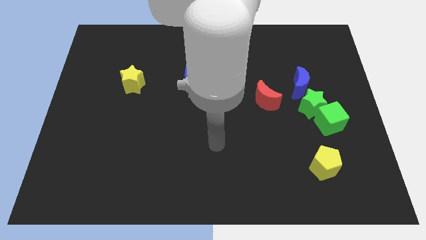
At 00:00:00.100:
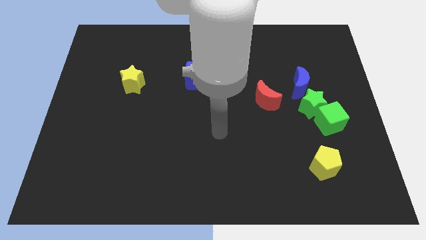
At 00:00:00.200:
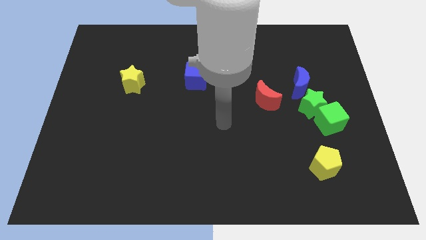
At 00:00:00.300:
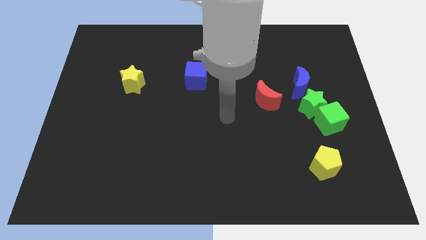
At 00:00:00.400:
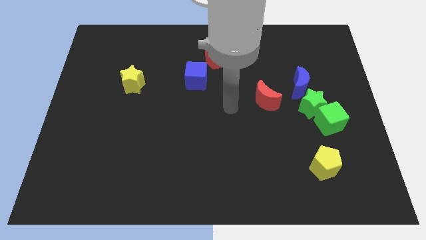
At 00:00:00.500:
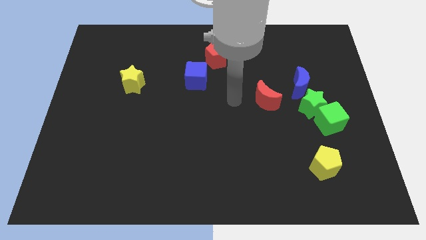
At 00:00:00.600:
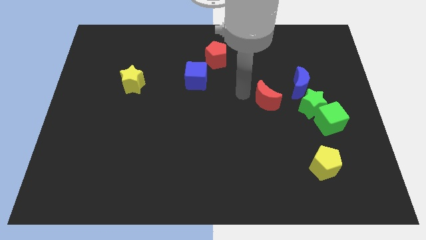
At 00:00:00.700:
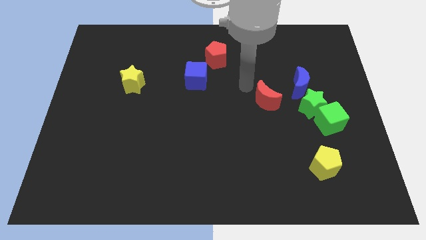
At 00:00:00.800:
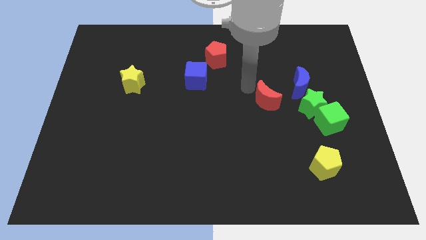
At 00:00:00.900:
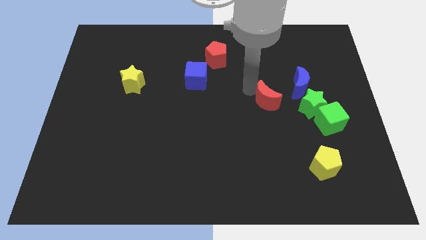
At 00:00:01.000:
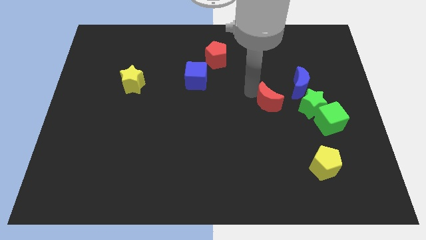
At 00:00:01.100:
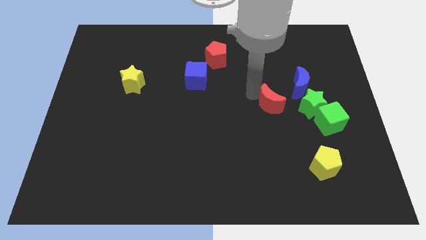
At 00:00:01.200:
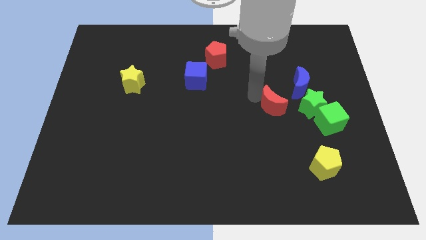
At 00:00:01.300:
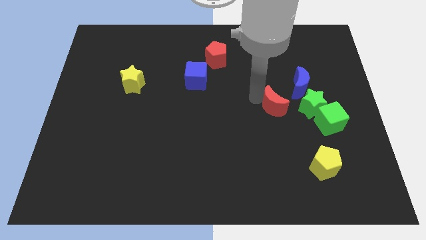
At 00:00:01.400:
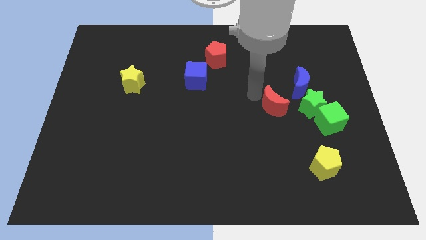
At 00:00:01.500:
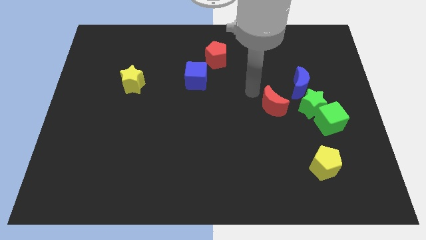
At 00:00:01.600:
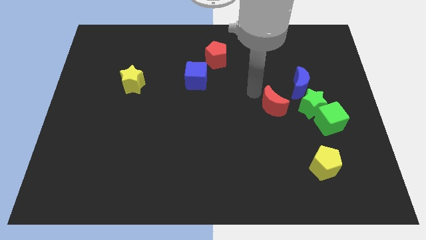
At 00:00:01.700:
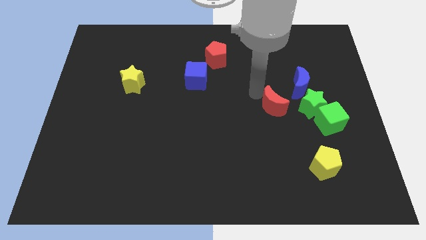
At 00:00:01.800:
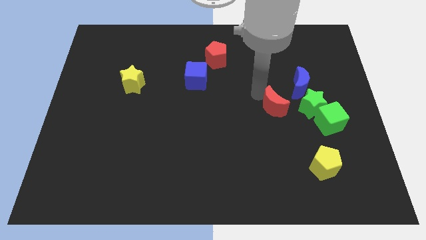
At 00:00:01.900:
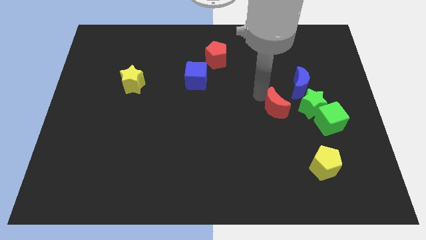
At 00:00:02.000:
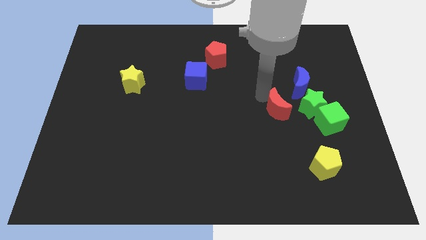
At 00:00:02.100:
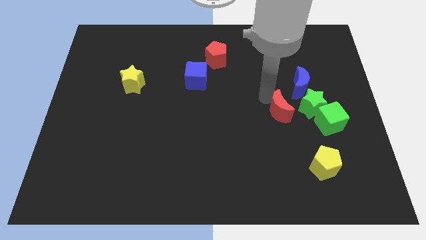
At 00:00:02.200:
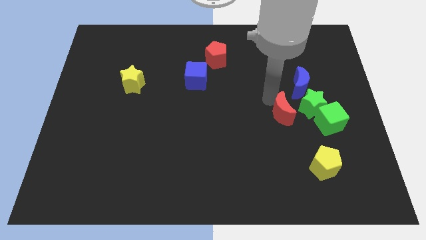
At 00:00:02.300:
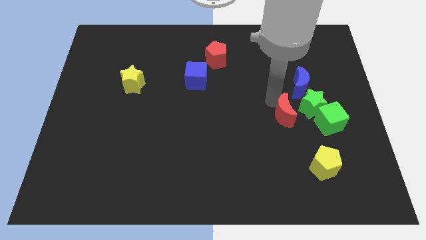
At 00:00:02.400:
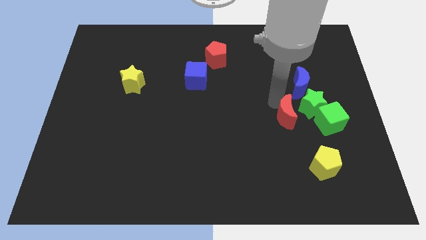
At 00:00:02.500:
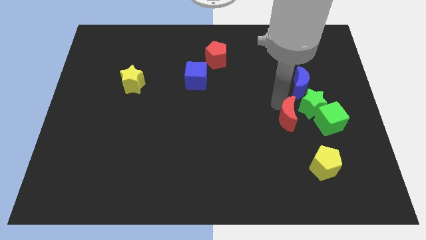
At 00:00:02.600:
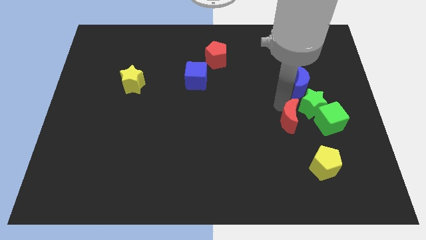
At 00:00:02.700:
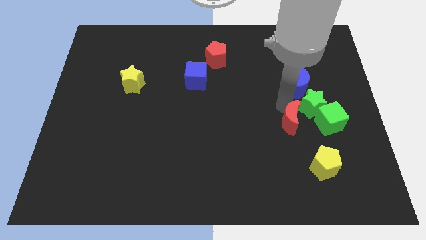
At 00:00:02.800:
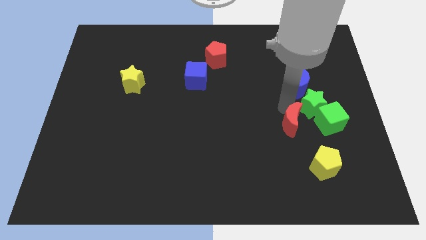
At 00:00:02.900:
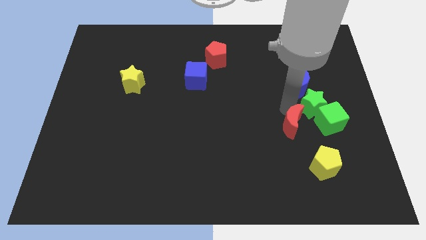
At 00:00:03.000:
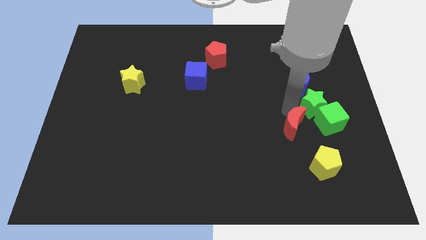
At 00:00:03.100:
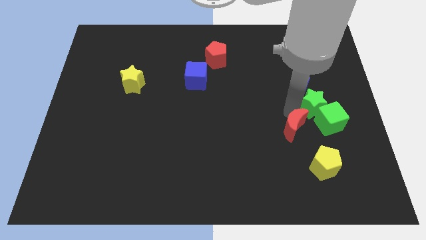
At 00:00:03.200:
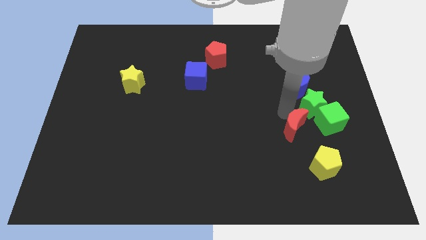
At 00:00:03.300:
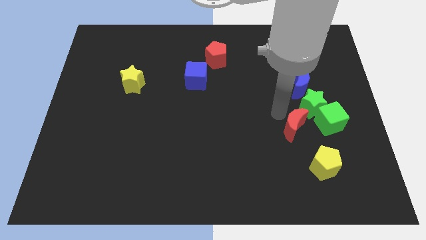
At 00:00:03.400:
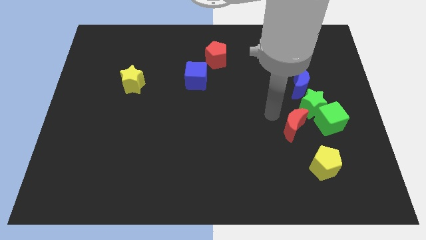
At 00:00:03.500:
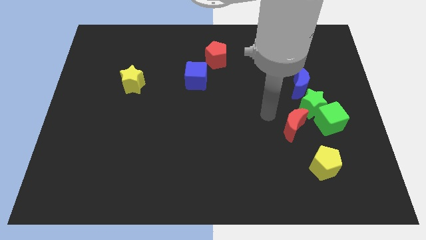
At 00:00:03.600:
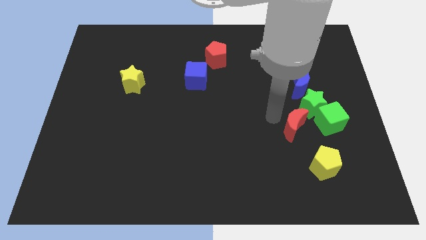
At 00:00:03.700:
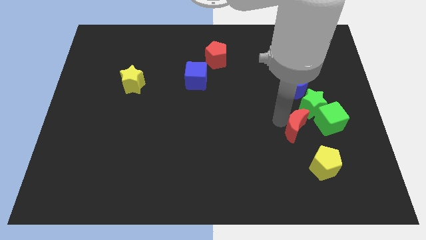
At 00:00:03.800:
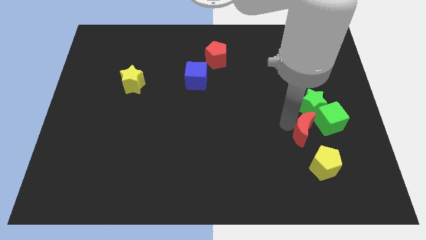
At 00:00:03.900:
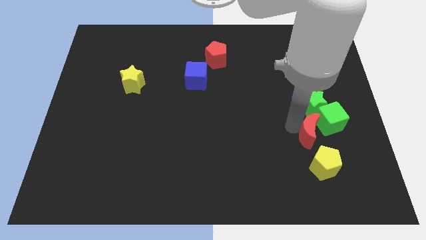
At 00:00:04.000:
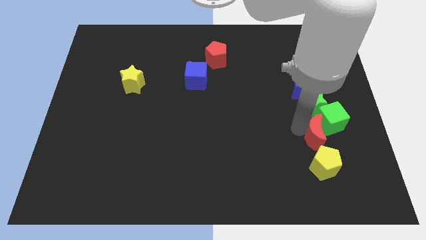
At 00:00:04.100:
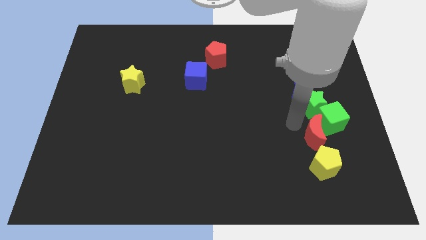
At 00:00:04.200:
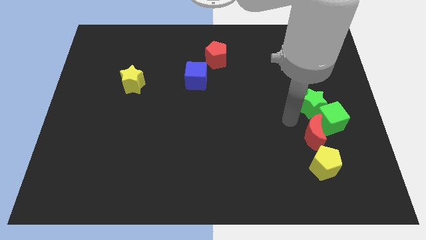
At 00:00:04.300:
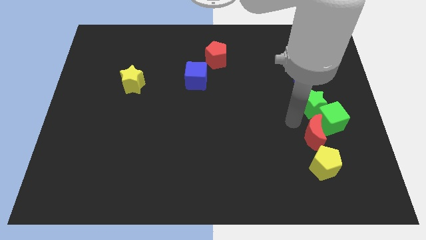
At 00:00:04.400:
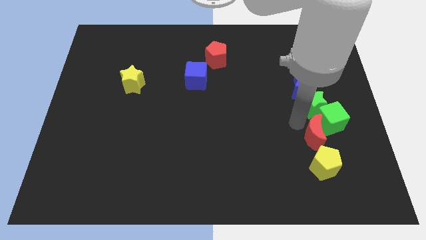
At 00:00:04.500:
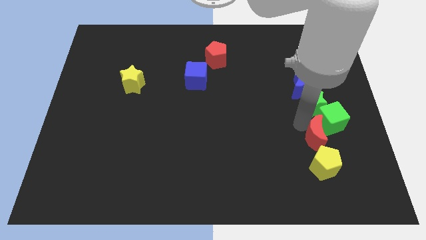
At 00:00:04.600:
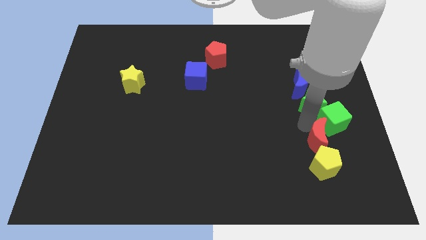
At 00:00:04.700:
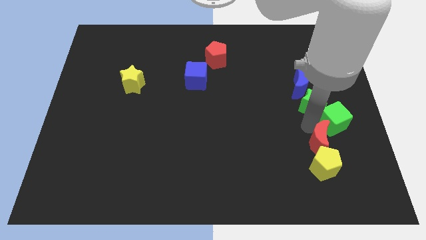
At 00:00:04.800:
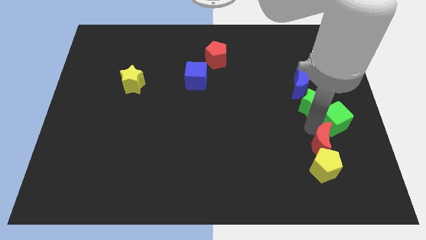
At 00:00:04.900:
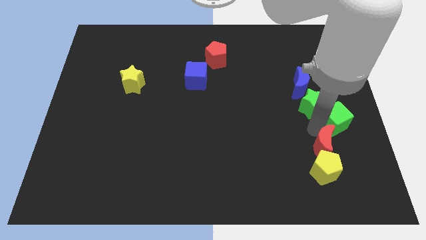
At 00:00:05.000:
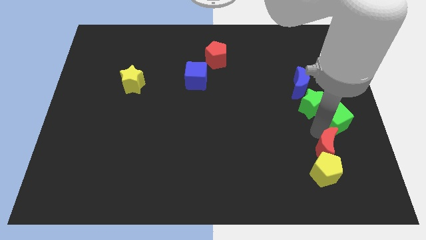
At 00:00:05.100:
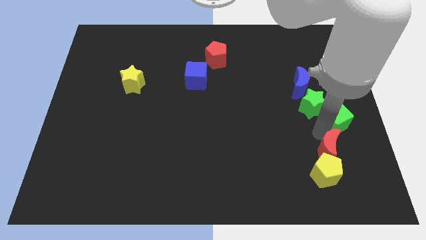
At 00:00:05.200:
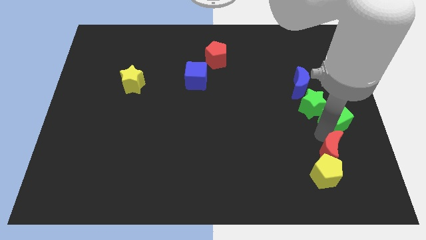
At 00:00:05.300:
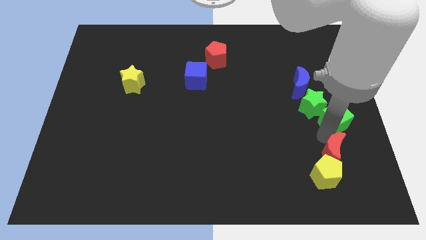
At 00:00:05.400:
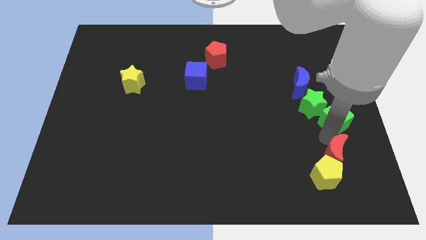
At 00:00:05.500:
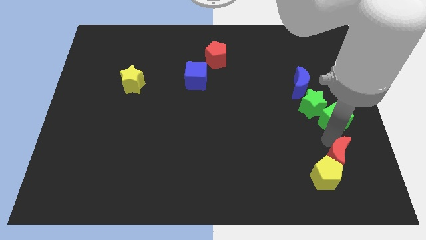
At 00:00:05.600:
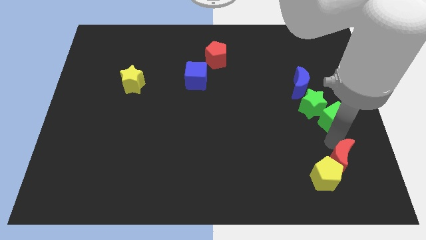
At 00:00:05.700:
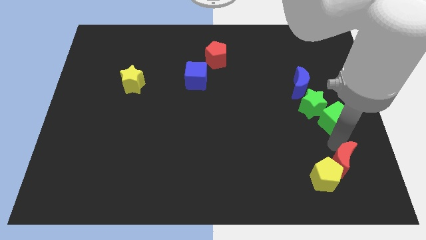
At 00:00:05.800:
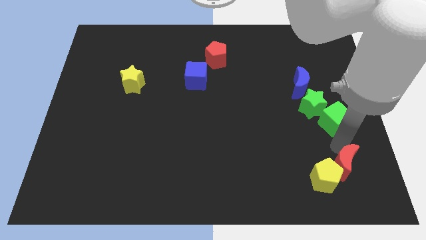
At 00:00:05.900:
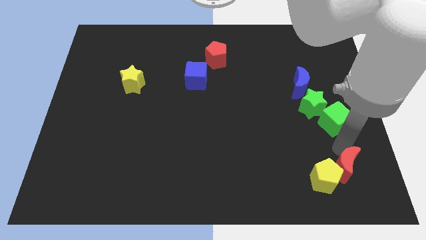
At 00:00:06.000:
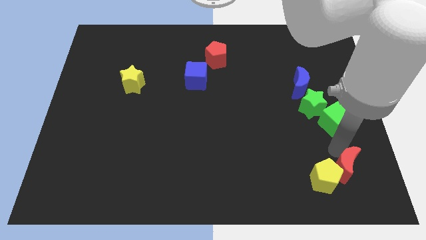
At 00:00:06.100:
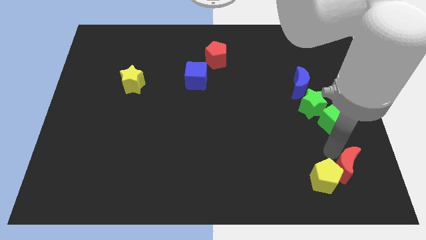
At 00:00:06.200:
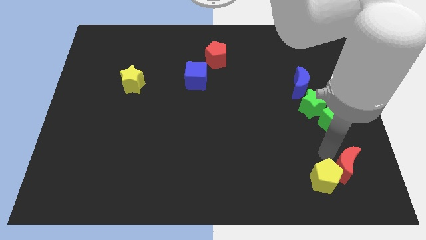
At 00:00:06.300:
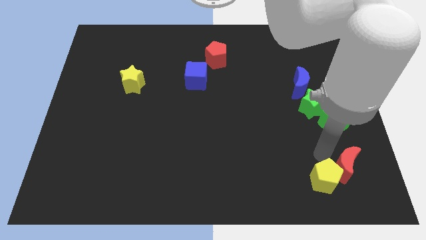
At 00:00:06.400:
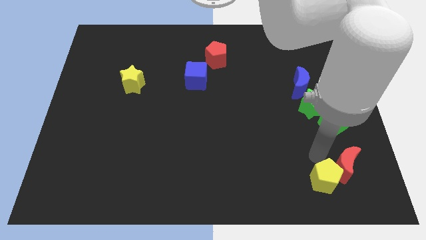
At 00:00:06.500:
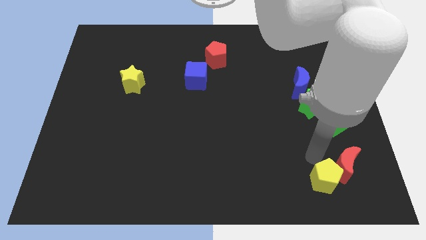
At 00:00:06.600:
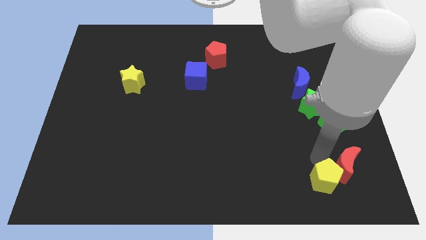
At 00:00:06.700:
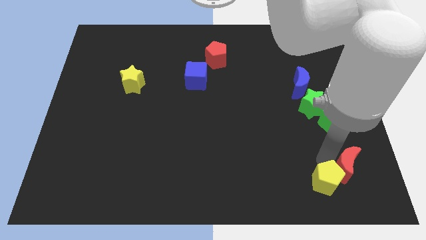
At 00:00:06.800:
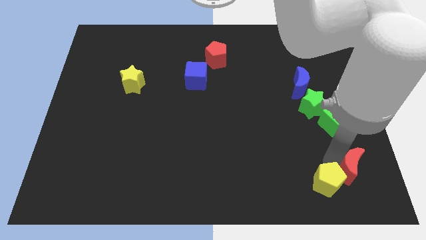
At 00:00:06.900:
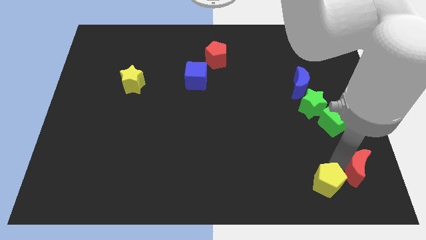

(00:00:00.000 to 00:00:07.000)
put the red moon to the lower right corner
